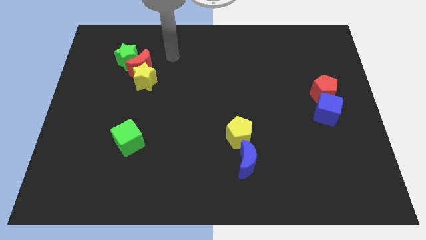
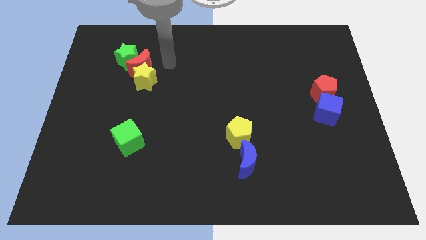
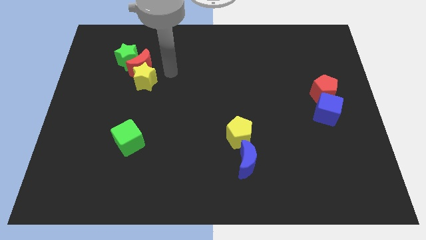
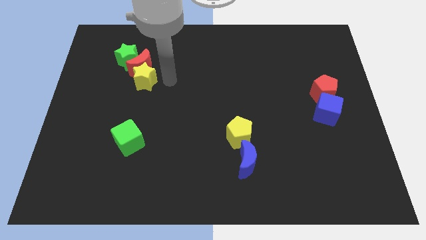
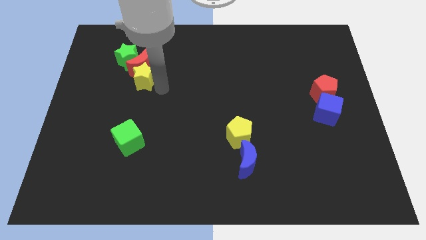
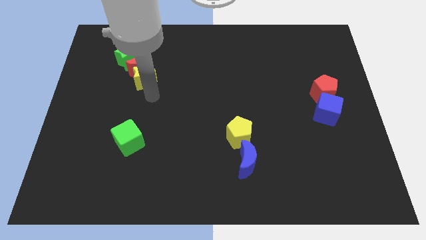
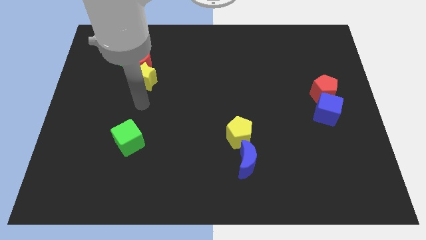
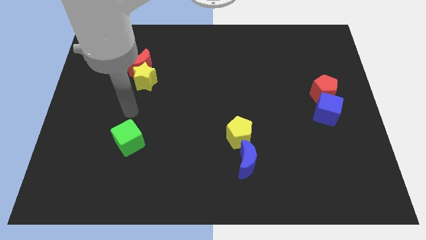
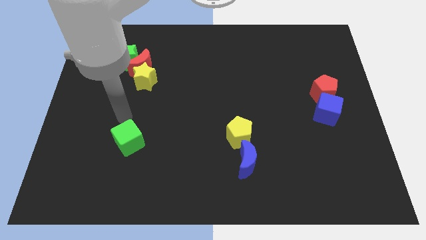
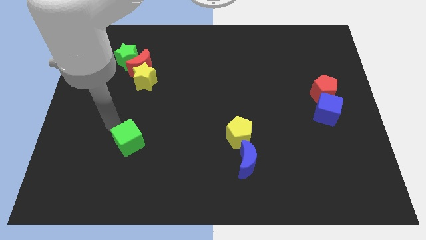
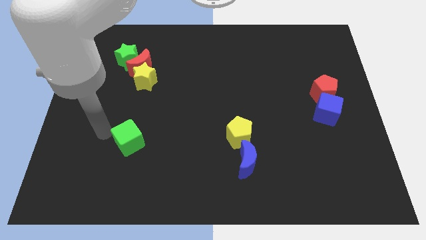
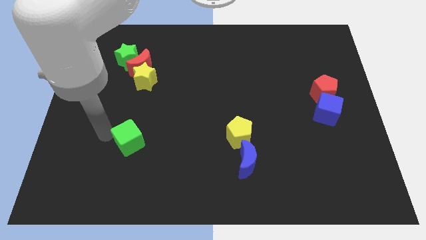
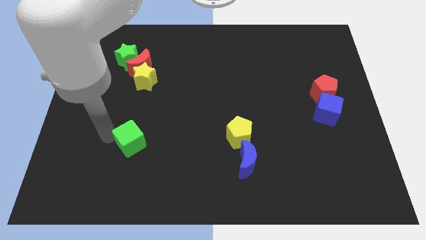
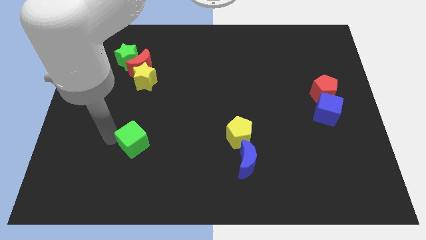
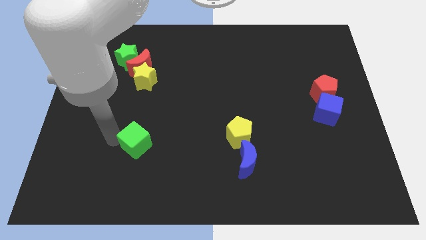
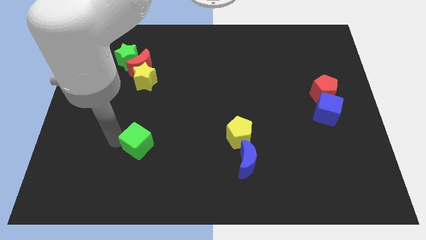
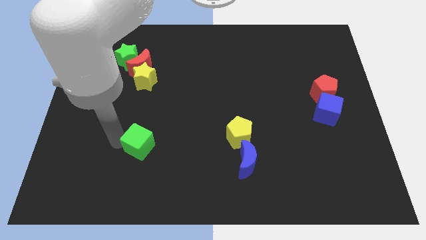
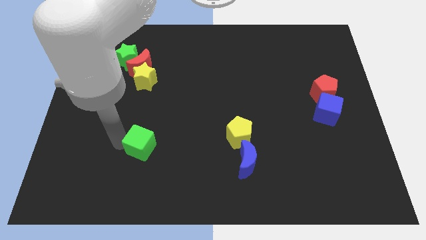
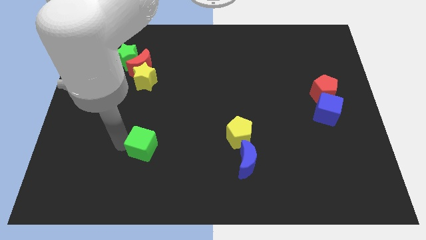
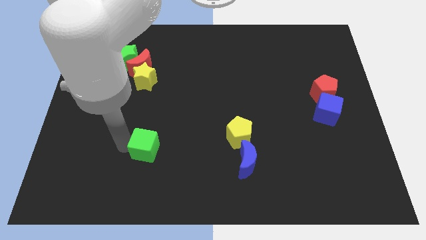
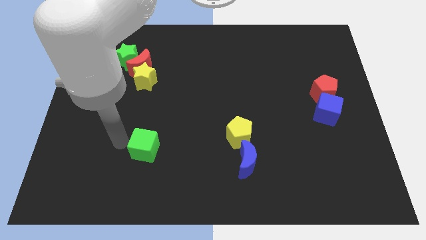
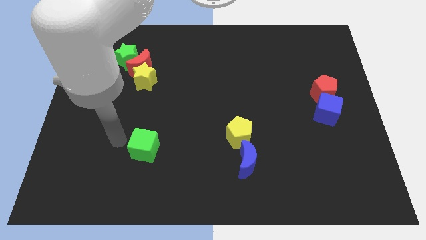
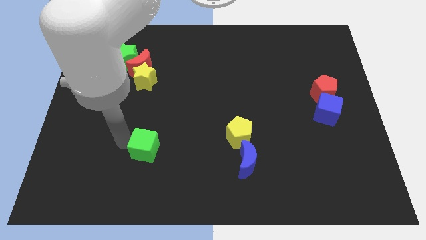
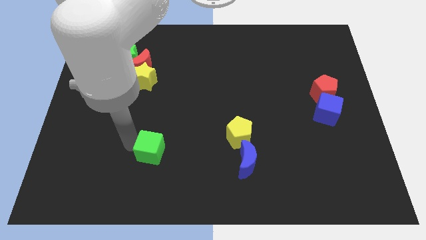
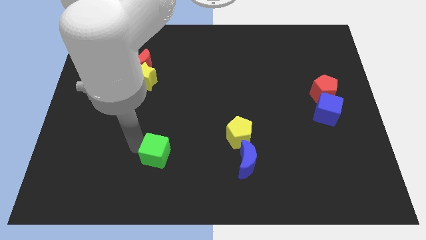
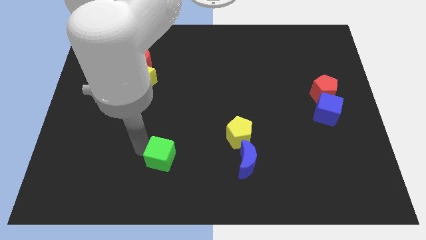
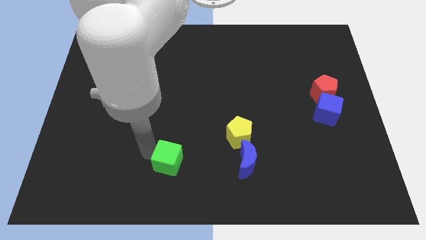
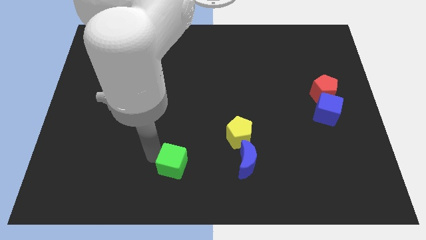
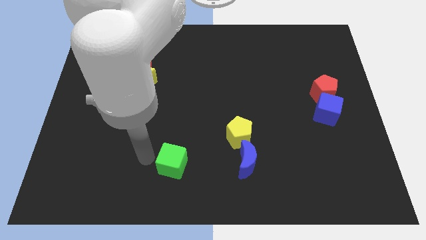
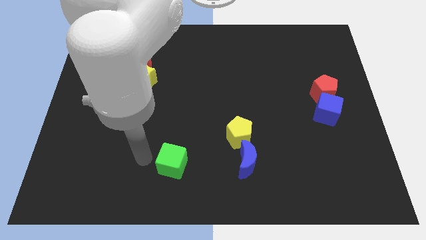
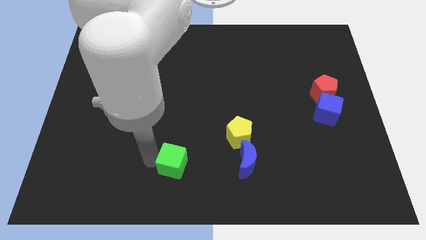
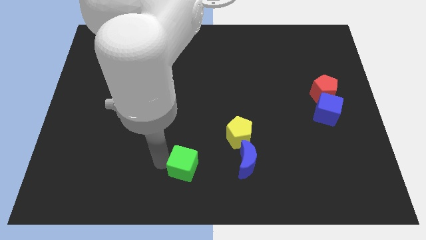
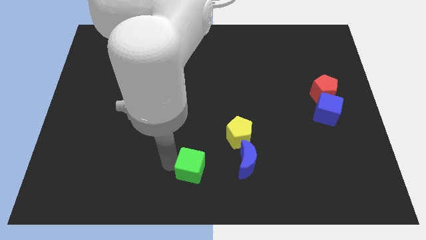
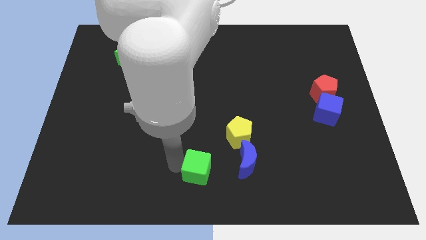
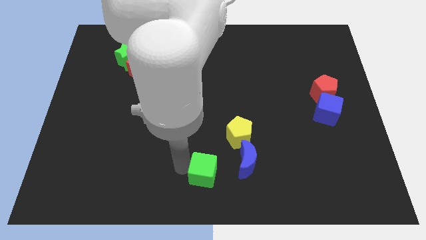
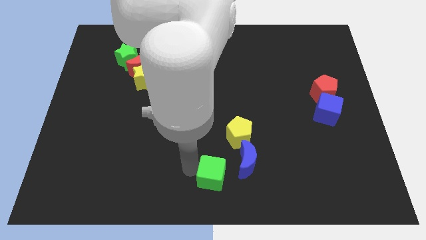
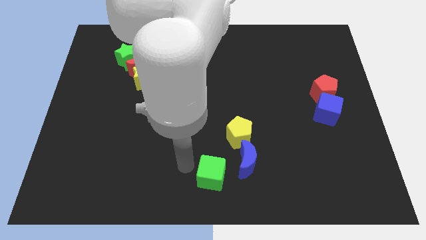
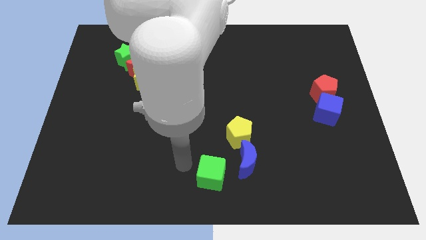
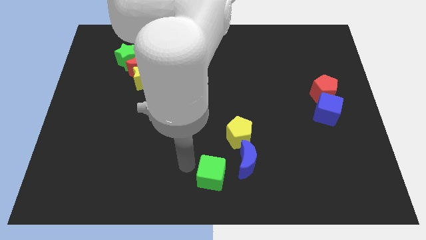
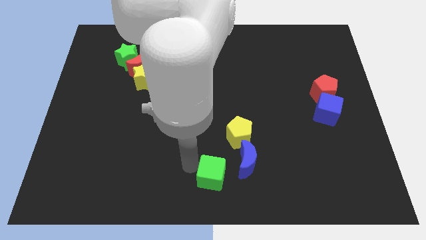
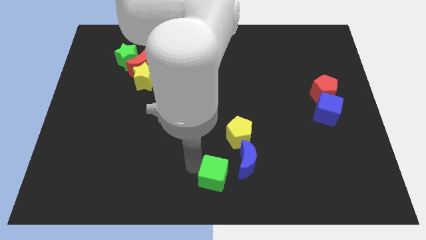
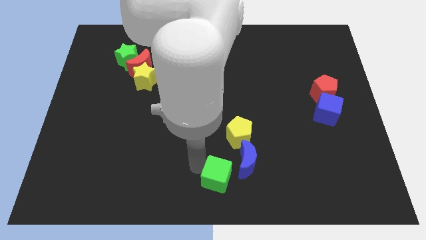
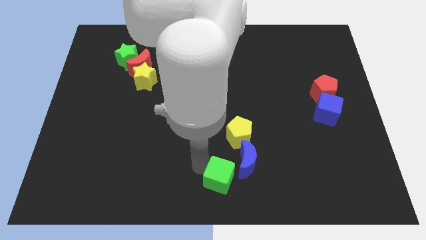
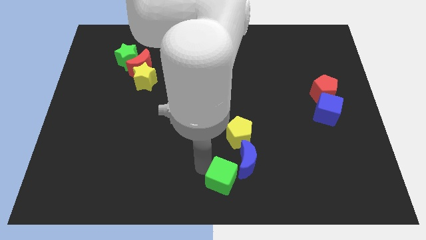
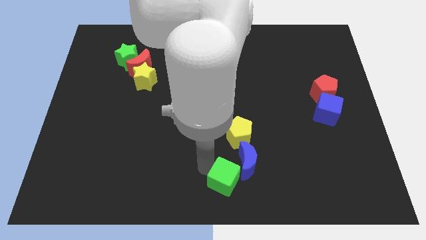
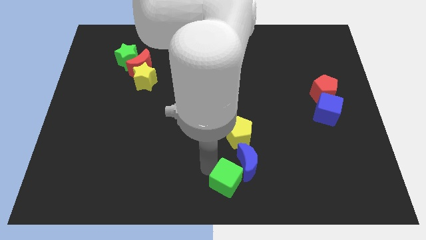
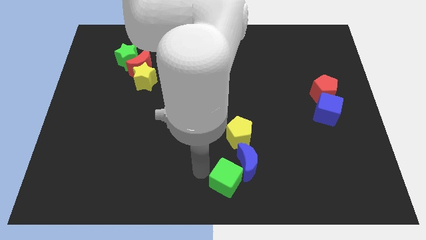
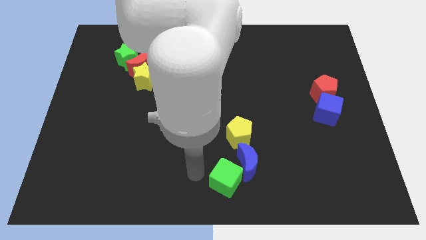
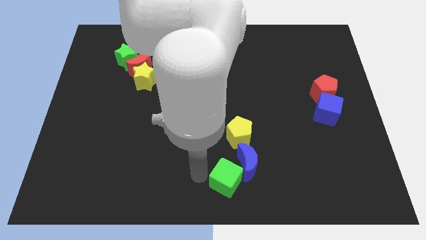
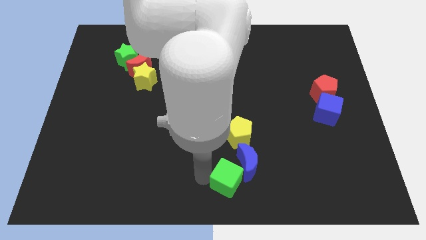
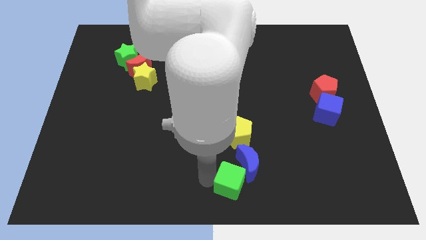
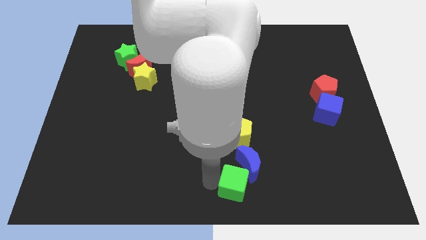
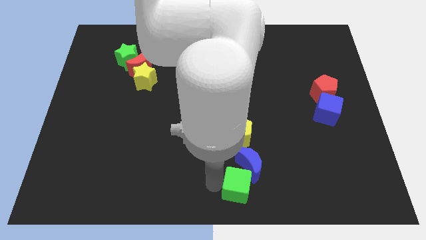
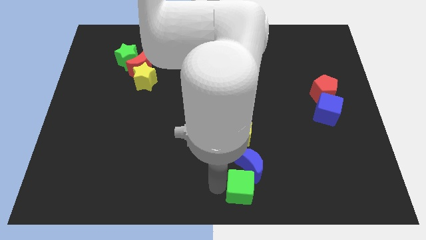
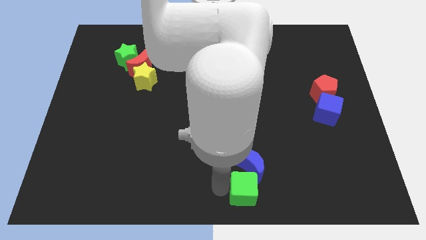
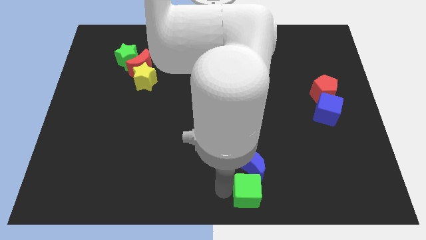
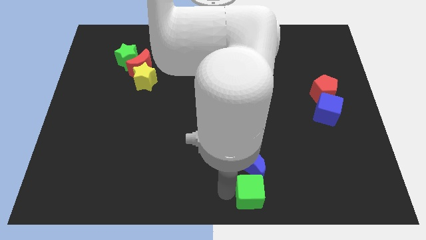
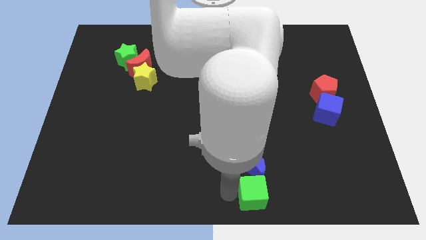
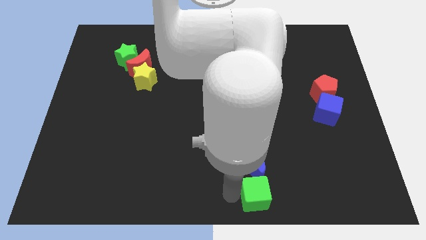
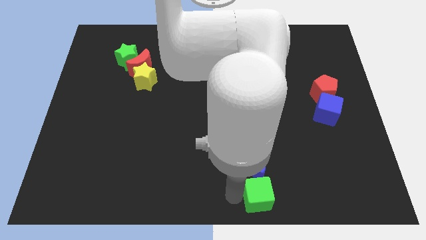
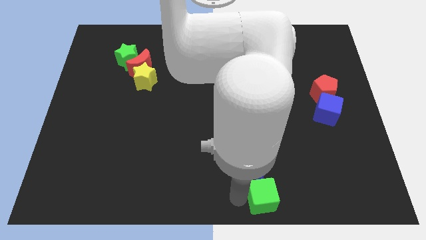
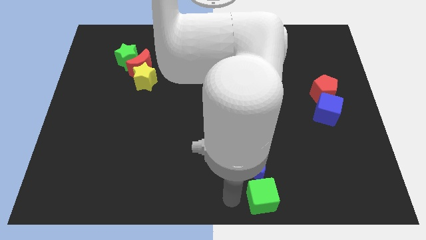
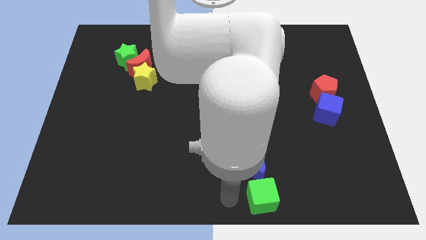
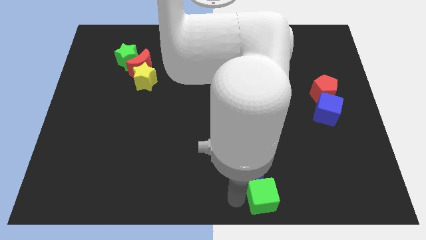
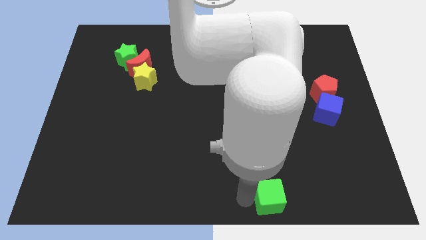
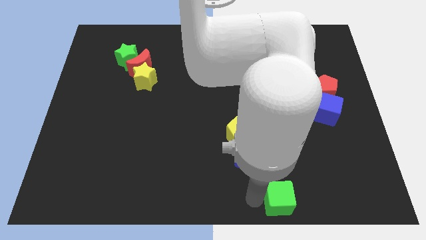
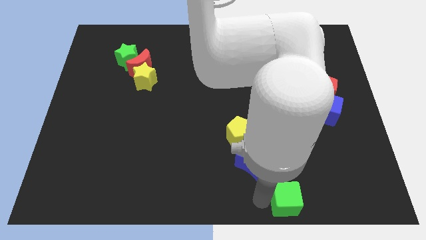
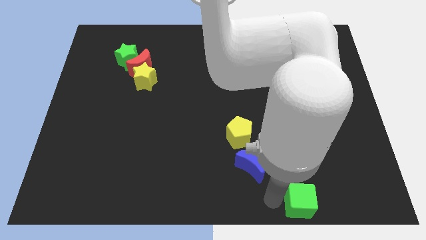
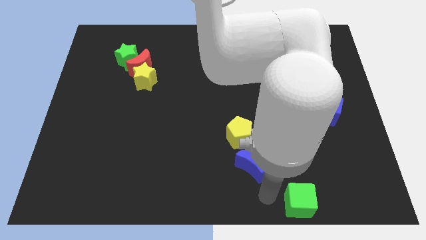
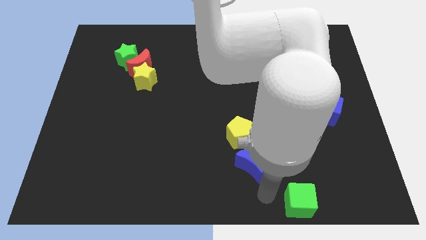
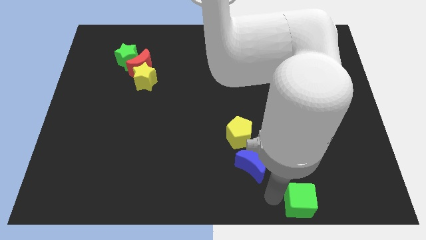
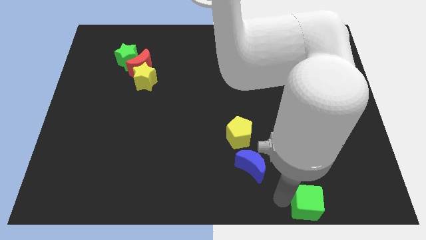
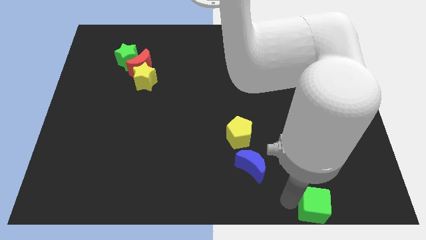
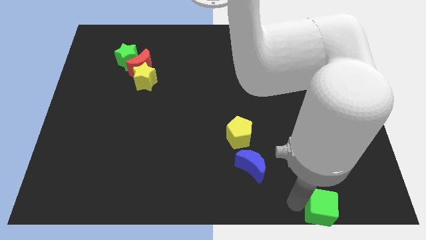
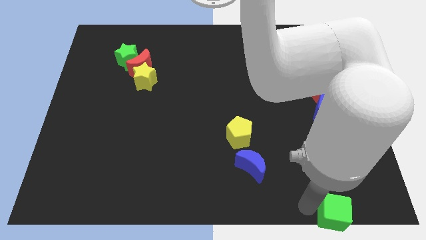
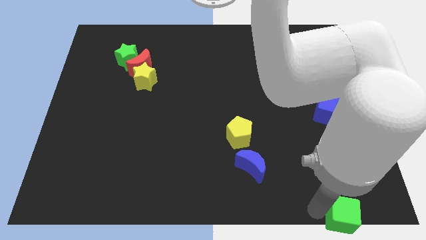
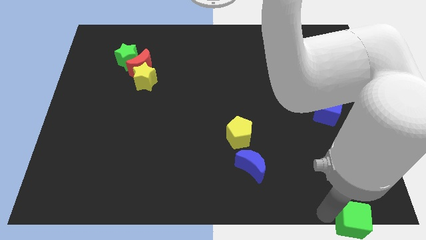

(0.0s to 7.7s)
move the green cube to the bottom right corner
